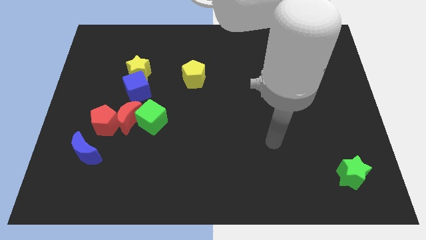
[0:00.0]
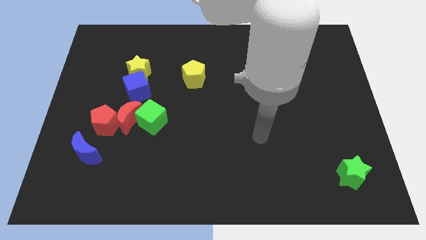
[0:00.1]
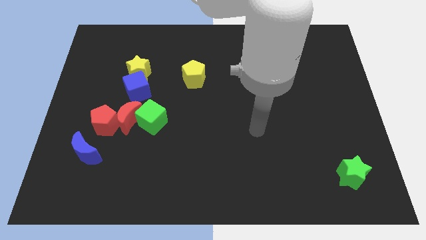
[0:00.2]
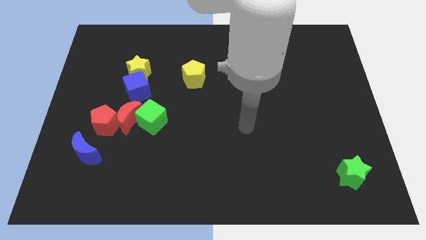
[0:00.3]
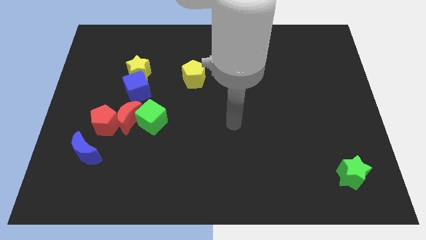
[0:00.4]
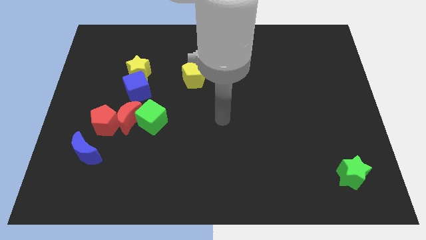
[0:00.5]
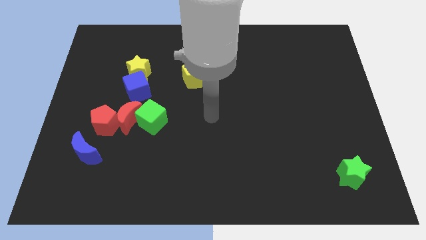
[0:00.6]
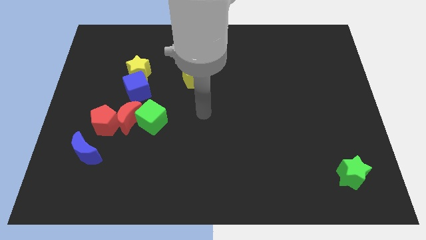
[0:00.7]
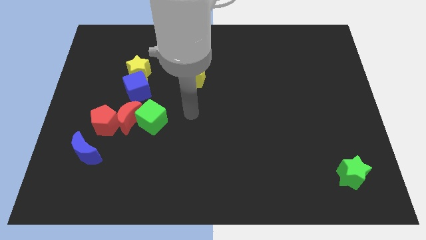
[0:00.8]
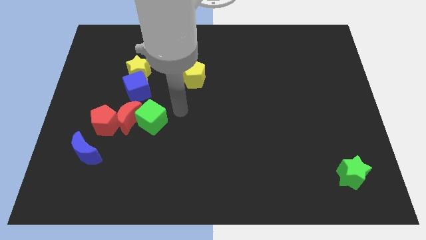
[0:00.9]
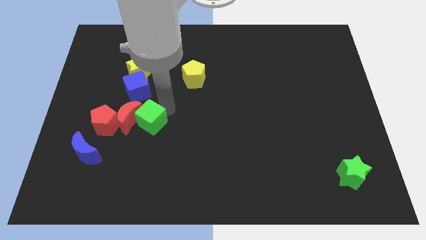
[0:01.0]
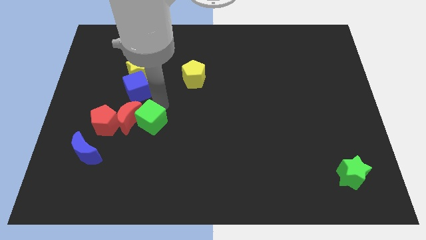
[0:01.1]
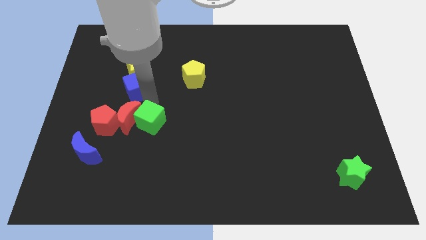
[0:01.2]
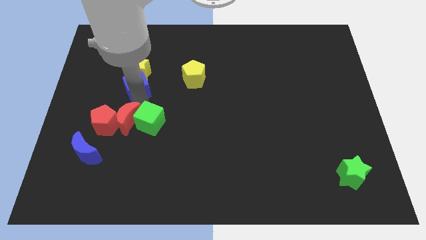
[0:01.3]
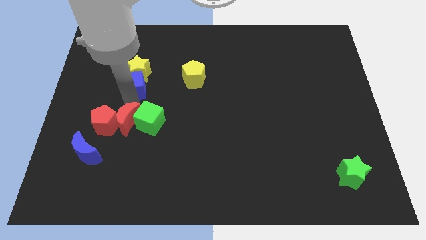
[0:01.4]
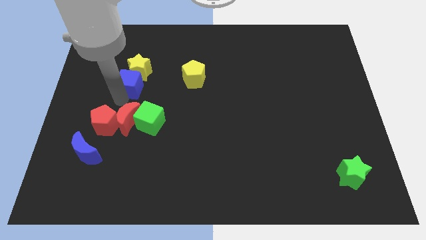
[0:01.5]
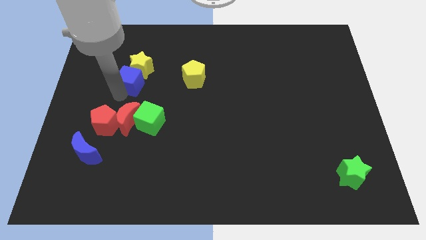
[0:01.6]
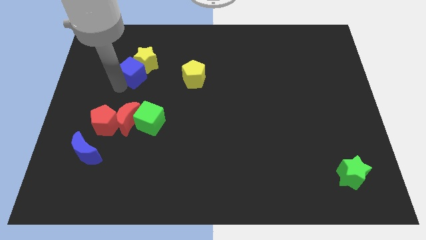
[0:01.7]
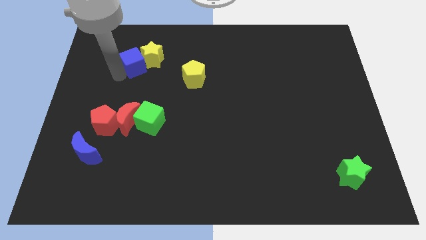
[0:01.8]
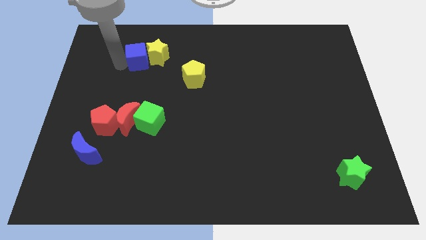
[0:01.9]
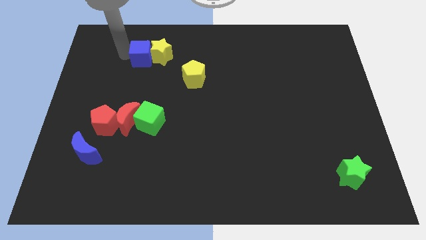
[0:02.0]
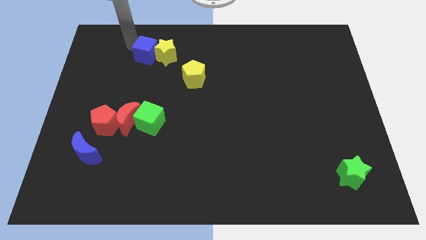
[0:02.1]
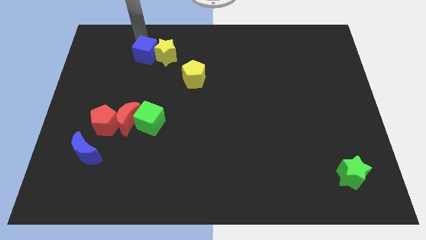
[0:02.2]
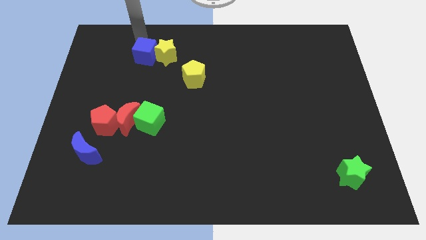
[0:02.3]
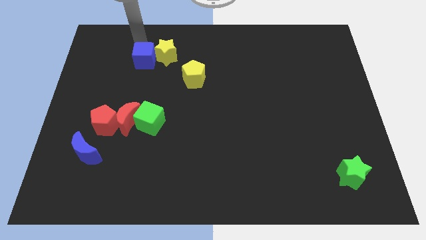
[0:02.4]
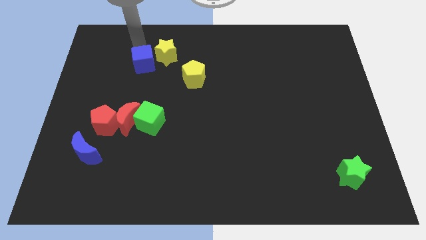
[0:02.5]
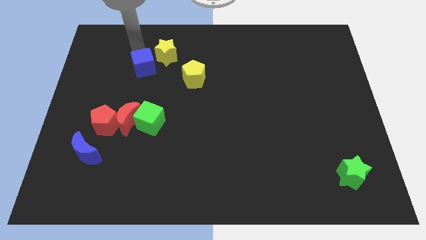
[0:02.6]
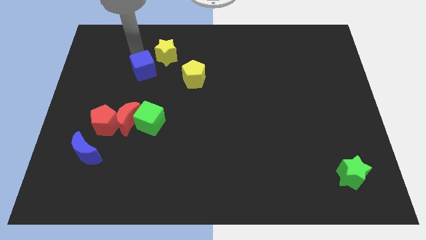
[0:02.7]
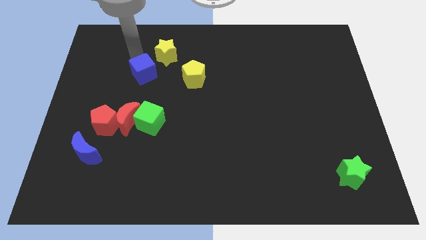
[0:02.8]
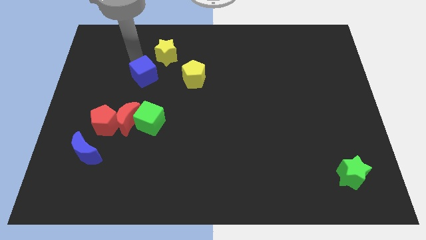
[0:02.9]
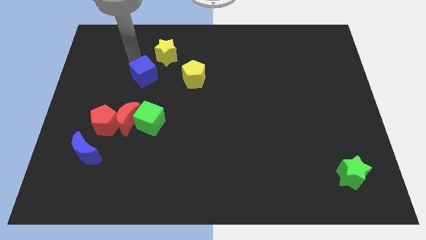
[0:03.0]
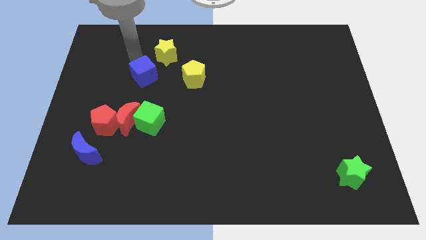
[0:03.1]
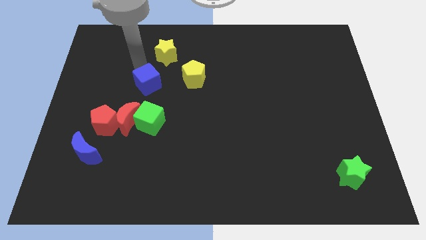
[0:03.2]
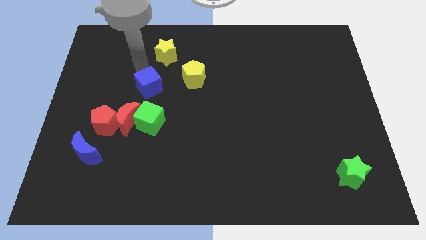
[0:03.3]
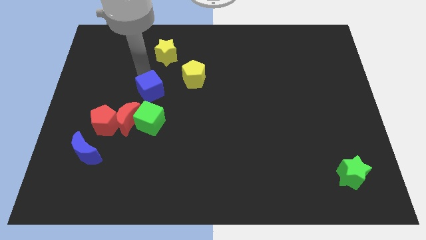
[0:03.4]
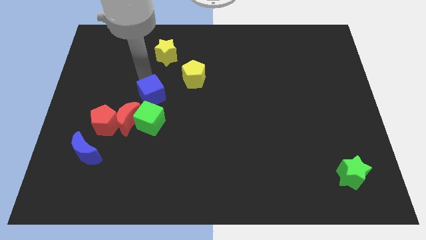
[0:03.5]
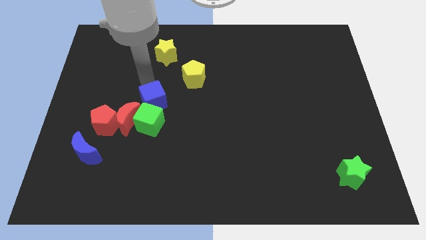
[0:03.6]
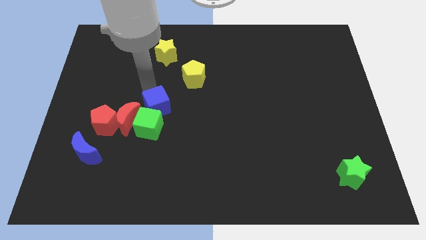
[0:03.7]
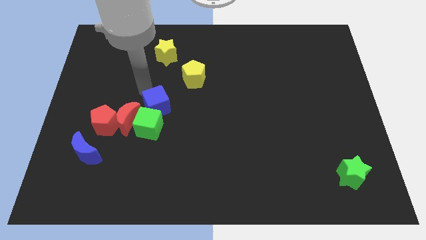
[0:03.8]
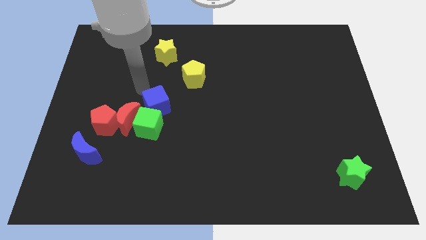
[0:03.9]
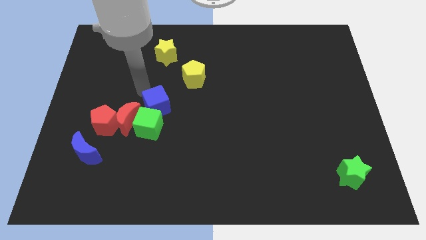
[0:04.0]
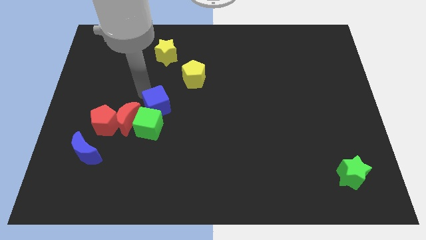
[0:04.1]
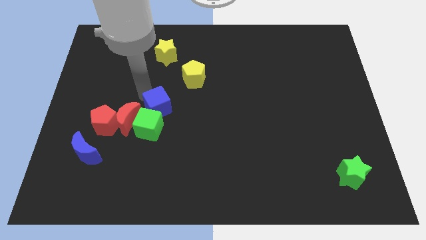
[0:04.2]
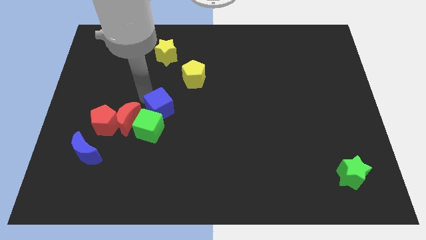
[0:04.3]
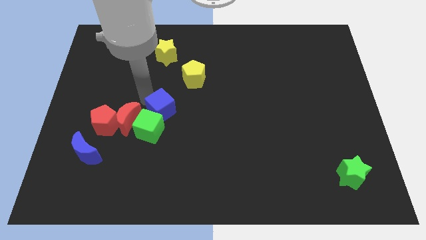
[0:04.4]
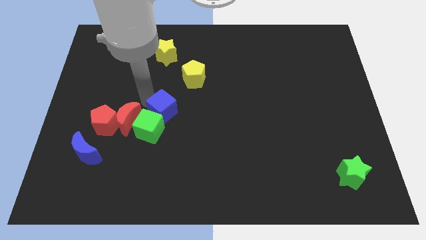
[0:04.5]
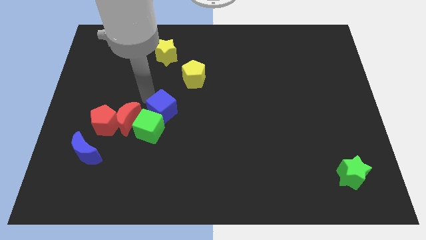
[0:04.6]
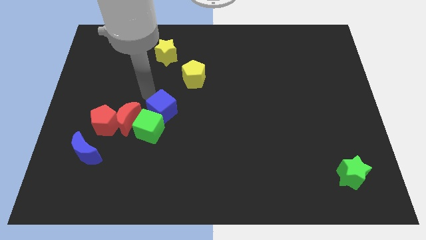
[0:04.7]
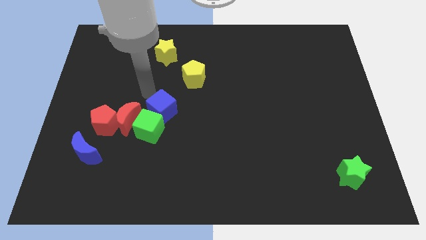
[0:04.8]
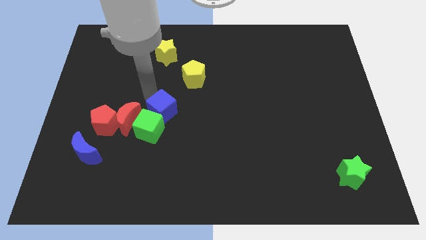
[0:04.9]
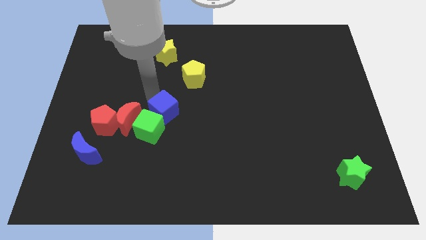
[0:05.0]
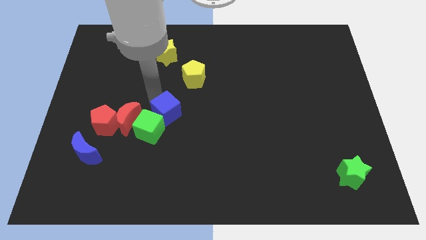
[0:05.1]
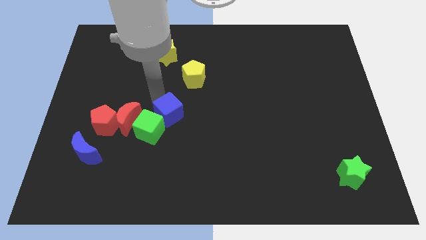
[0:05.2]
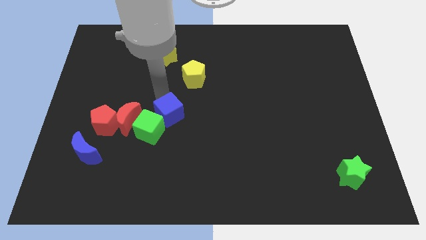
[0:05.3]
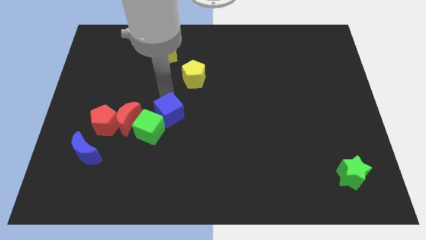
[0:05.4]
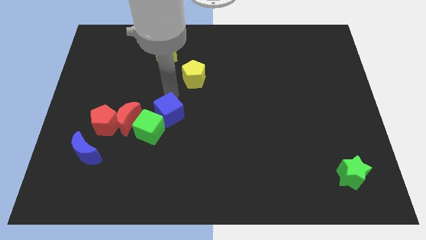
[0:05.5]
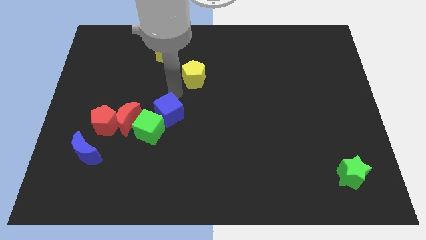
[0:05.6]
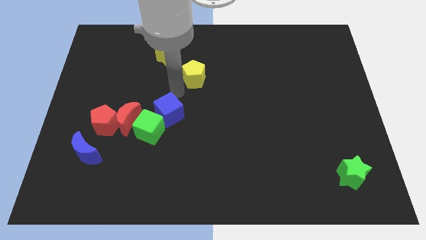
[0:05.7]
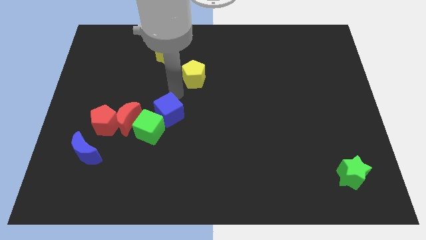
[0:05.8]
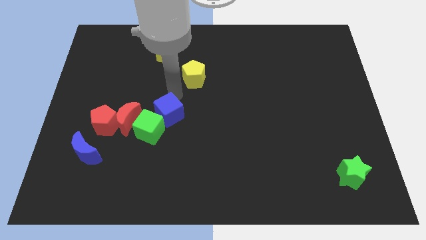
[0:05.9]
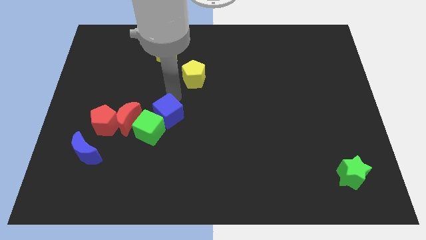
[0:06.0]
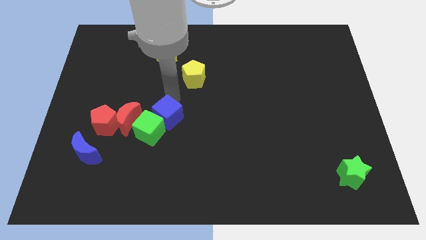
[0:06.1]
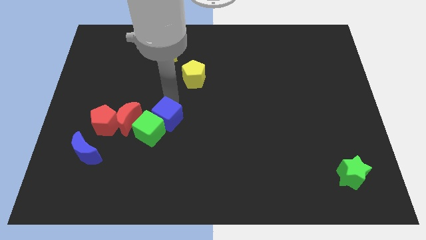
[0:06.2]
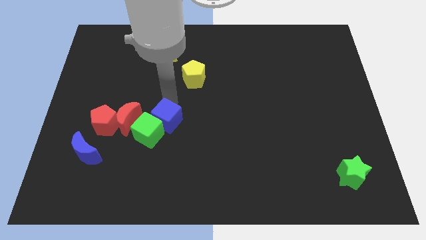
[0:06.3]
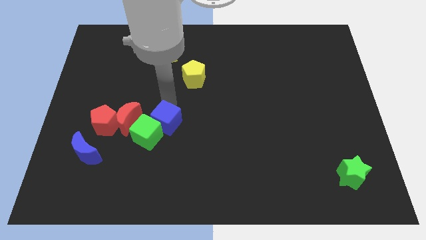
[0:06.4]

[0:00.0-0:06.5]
slightly slide the blue cube downwards

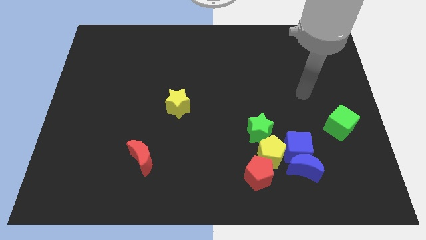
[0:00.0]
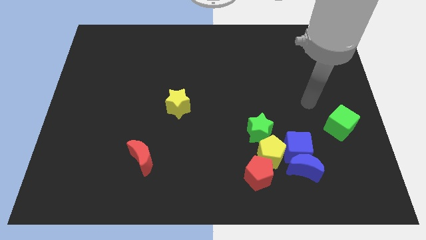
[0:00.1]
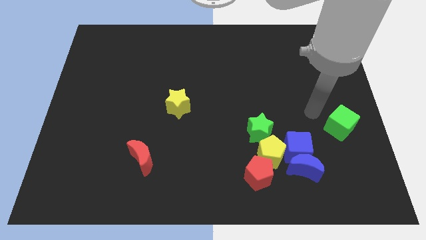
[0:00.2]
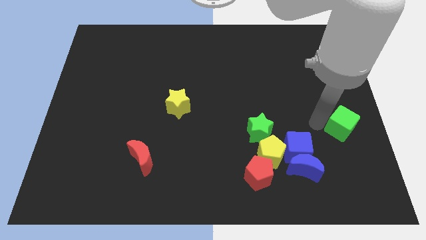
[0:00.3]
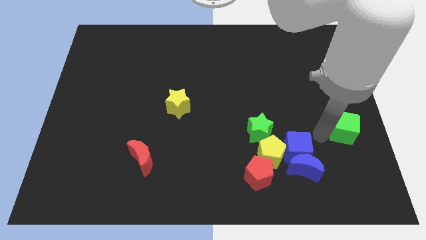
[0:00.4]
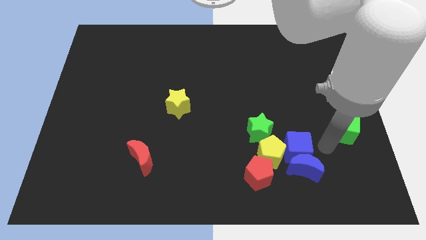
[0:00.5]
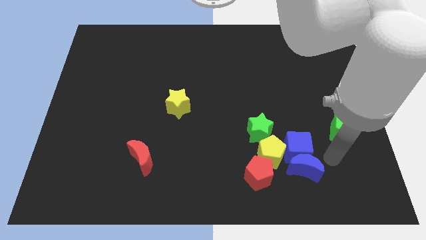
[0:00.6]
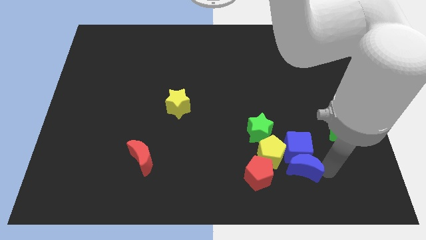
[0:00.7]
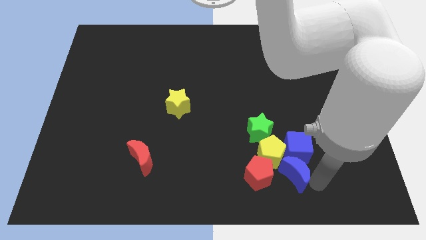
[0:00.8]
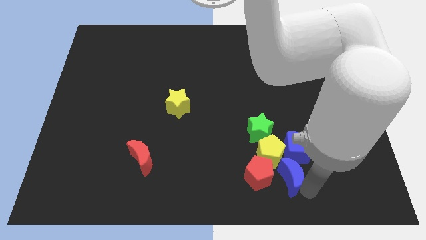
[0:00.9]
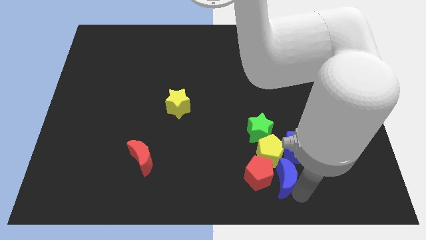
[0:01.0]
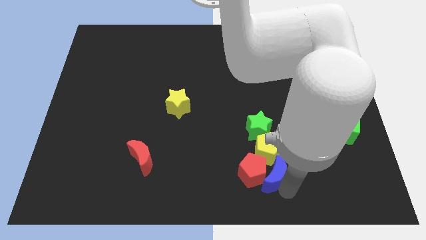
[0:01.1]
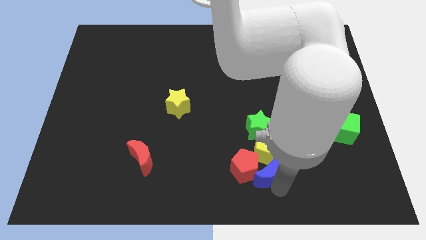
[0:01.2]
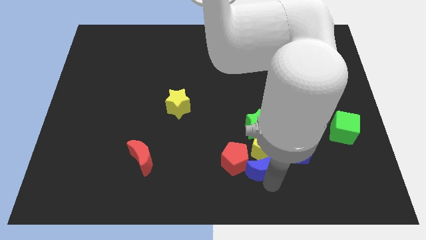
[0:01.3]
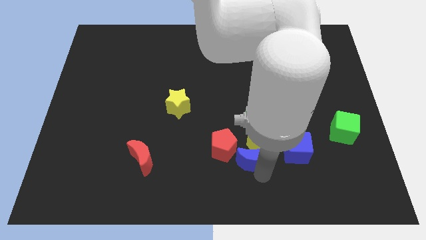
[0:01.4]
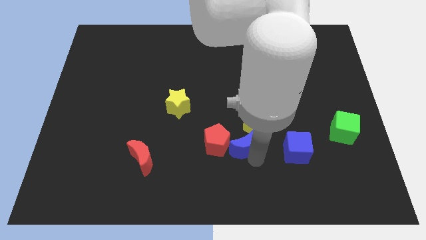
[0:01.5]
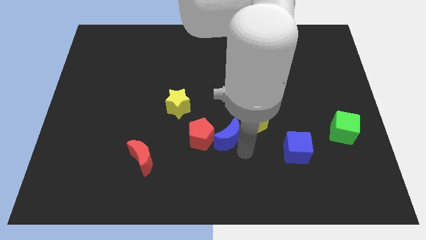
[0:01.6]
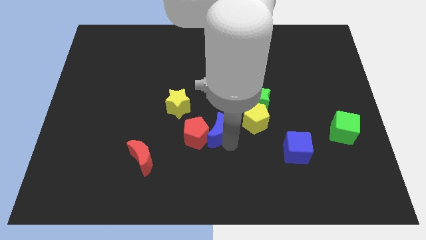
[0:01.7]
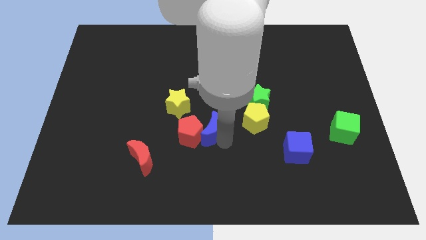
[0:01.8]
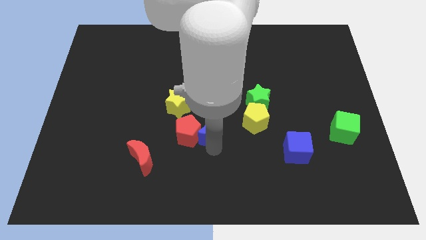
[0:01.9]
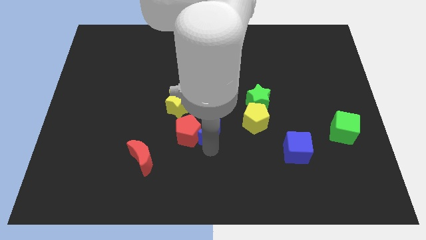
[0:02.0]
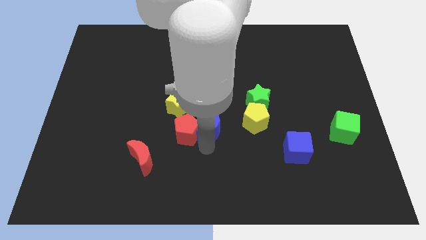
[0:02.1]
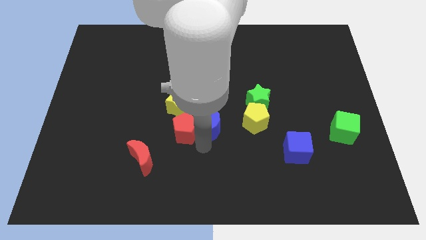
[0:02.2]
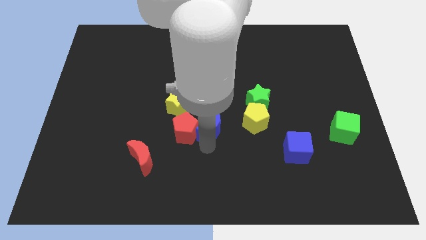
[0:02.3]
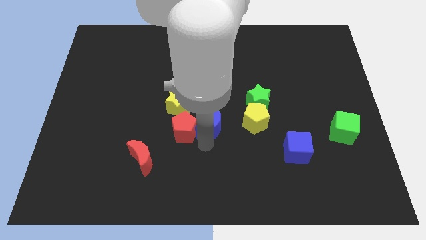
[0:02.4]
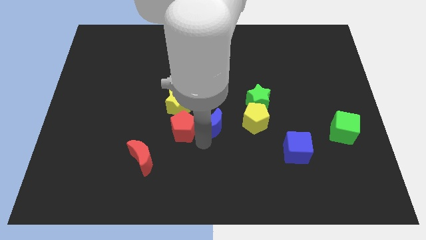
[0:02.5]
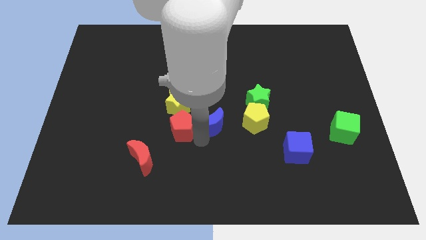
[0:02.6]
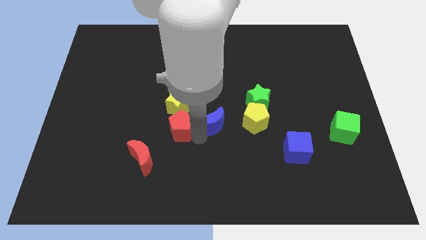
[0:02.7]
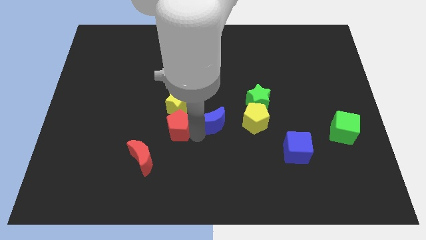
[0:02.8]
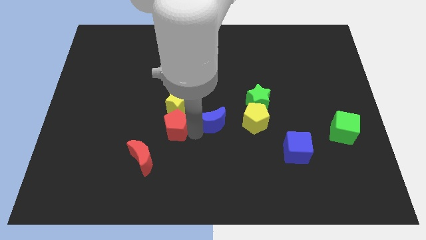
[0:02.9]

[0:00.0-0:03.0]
move the red pentagon upwards and then left
